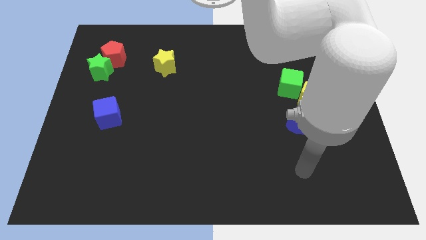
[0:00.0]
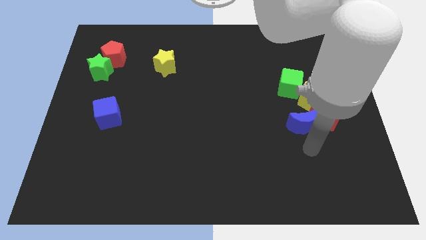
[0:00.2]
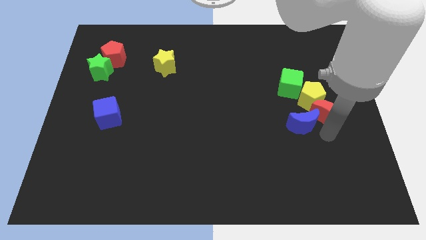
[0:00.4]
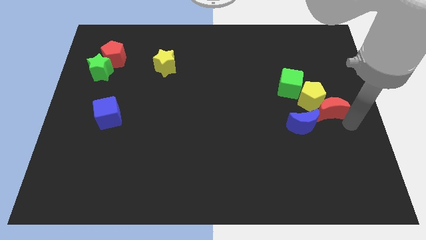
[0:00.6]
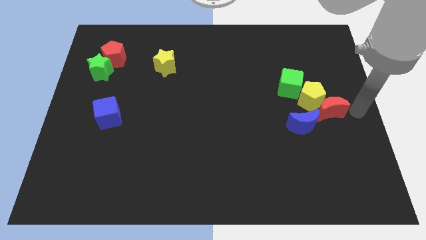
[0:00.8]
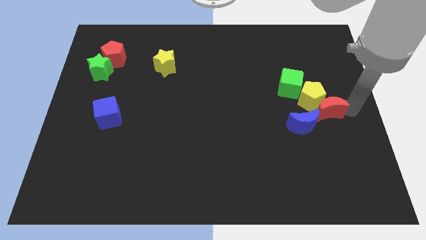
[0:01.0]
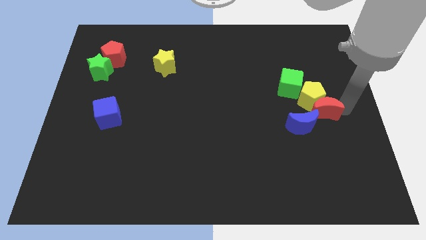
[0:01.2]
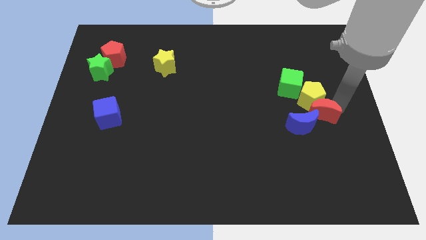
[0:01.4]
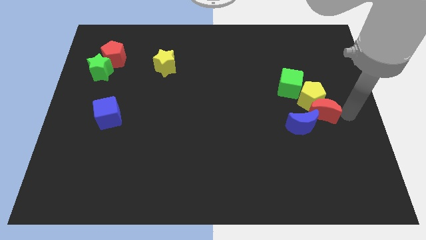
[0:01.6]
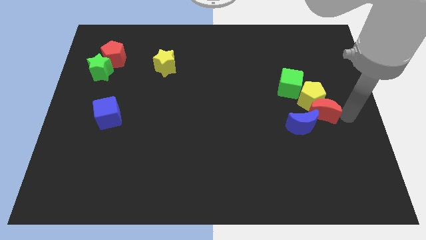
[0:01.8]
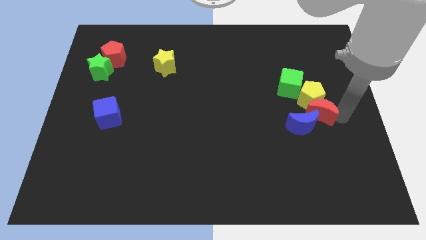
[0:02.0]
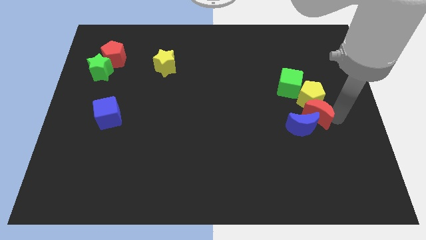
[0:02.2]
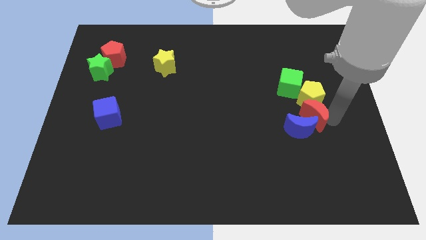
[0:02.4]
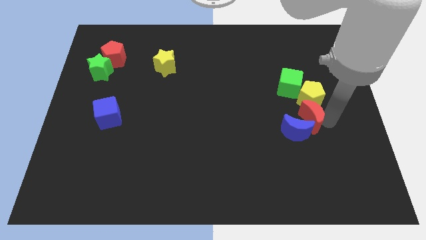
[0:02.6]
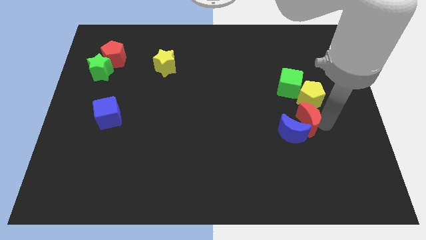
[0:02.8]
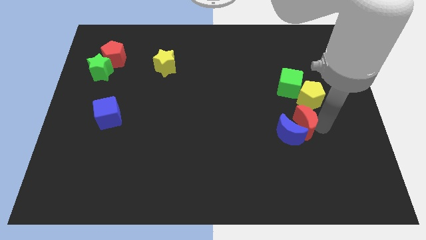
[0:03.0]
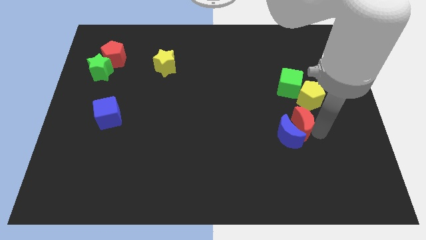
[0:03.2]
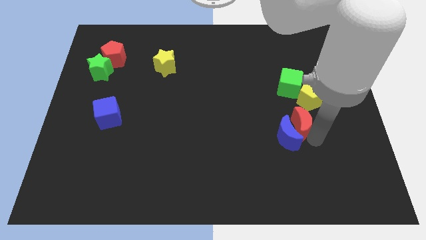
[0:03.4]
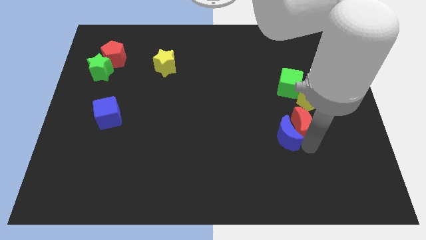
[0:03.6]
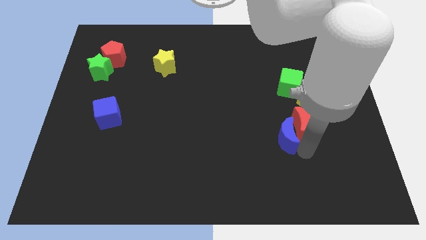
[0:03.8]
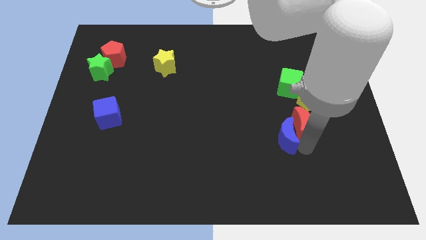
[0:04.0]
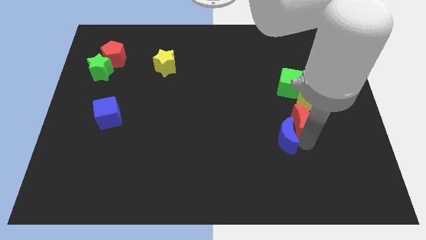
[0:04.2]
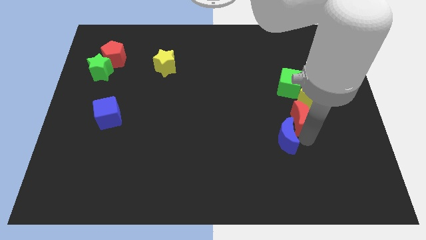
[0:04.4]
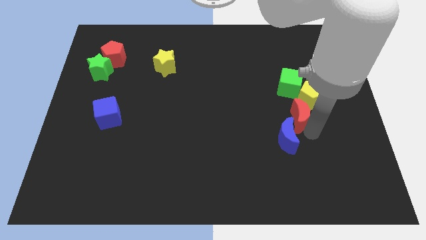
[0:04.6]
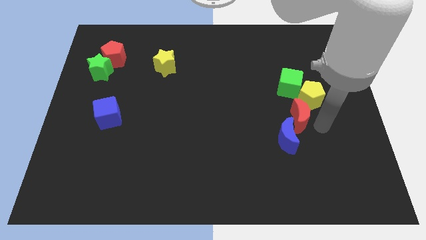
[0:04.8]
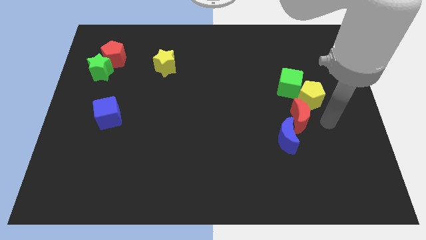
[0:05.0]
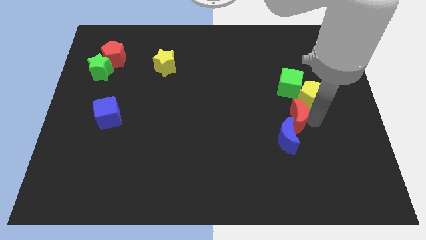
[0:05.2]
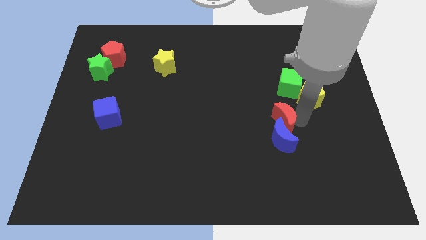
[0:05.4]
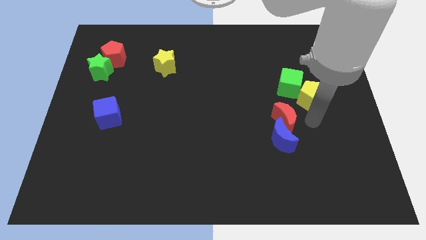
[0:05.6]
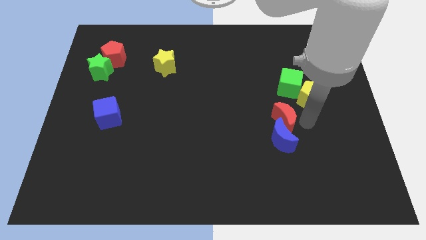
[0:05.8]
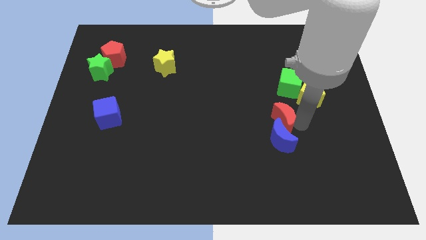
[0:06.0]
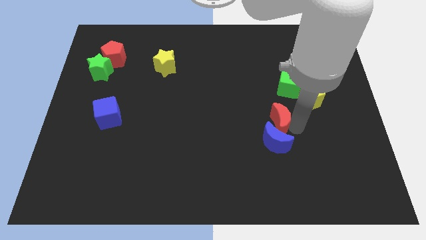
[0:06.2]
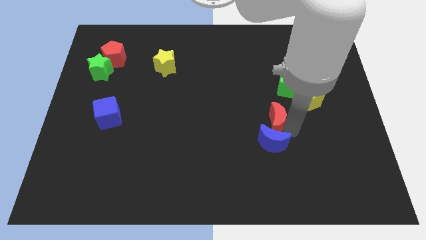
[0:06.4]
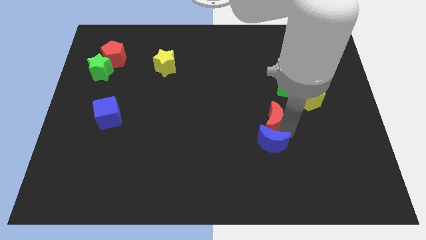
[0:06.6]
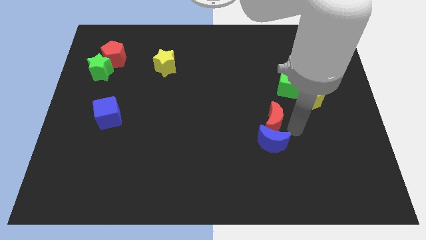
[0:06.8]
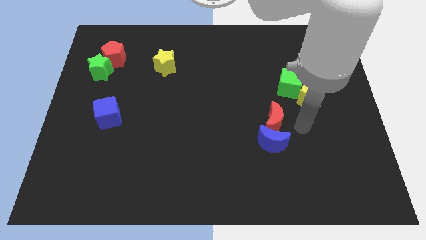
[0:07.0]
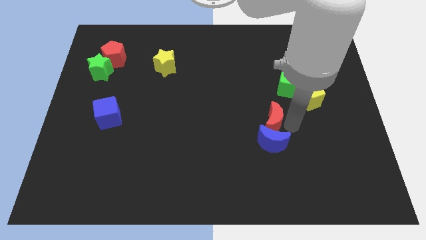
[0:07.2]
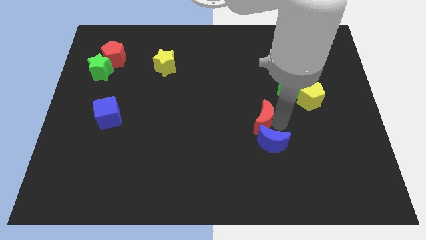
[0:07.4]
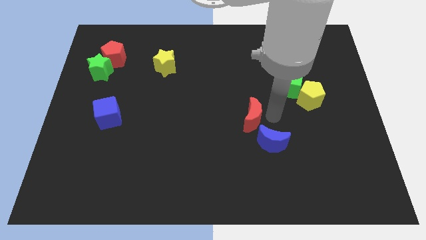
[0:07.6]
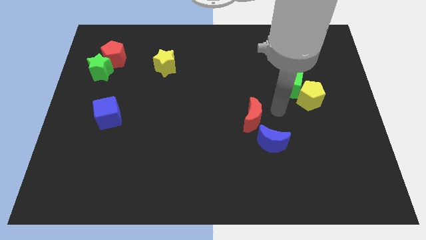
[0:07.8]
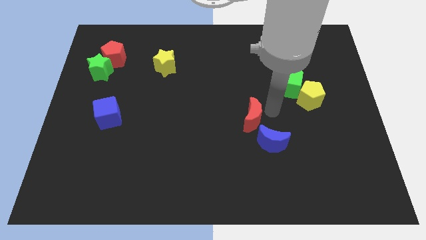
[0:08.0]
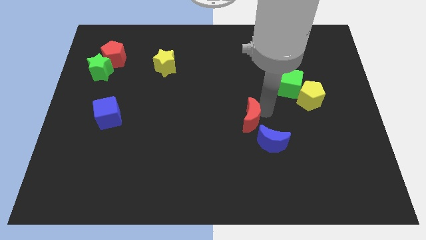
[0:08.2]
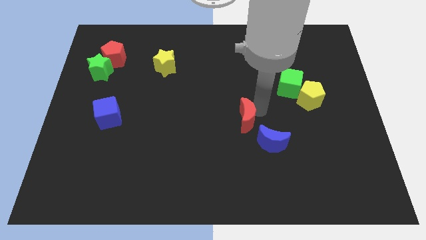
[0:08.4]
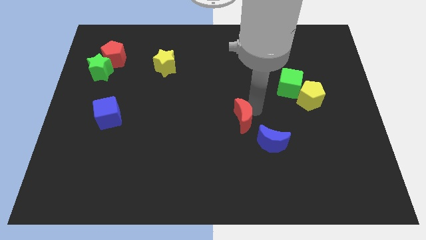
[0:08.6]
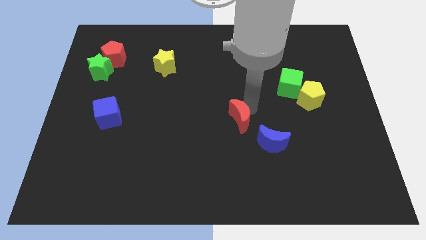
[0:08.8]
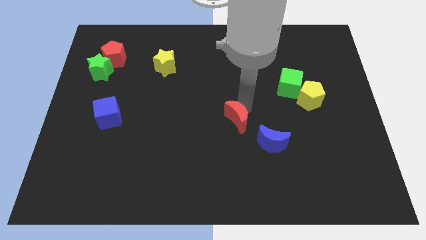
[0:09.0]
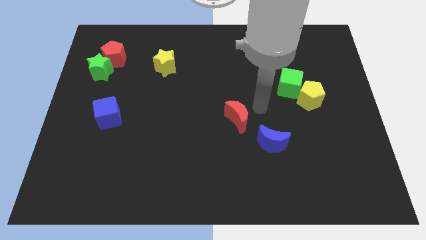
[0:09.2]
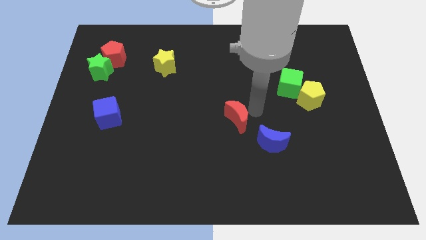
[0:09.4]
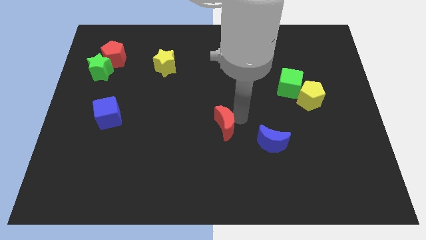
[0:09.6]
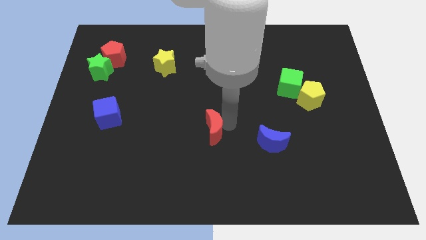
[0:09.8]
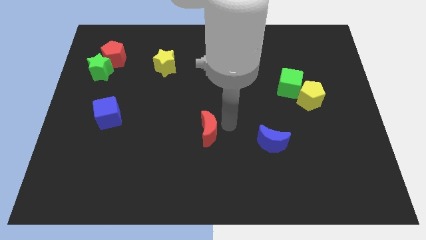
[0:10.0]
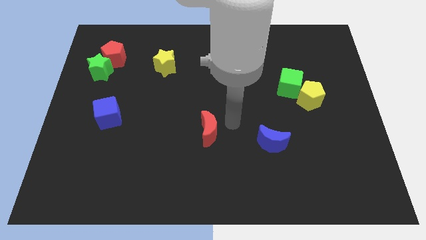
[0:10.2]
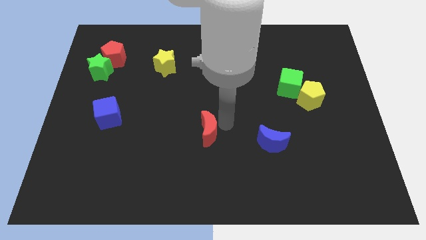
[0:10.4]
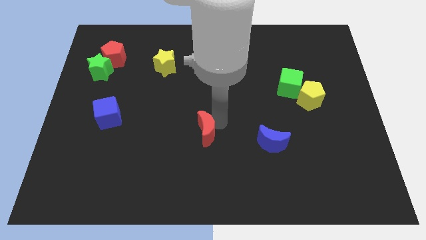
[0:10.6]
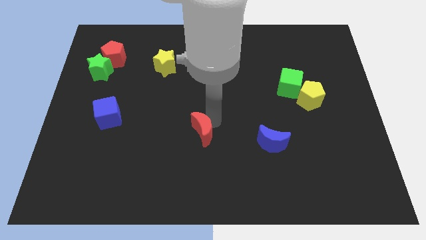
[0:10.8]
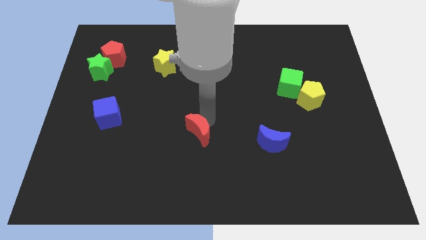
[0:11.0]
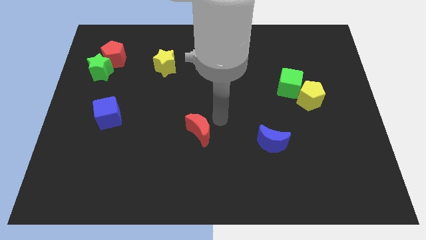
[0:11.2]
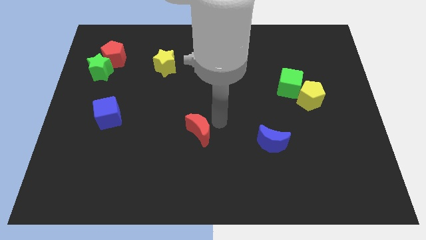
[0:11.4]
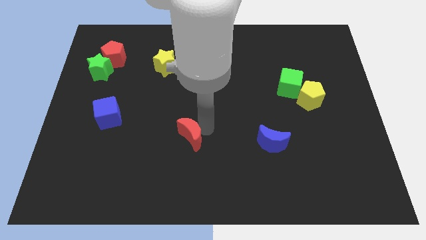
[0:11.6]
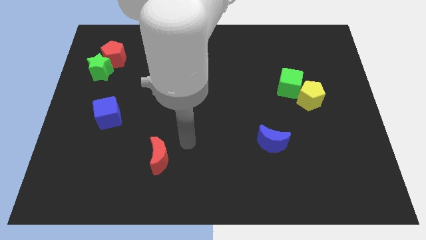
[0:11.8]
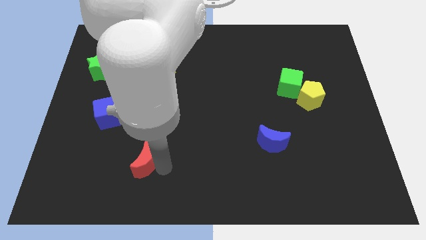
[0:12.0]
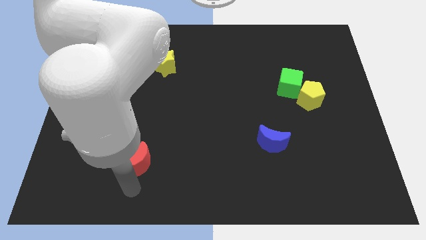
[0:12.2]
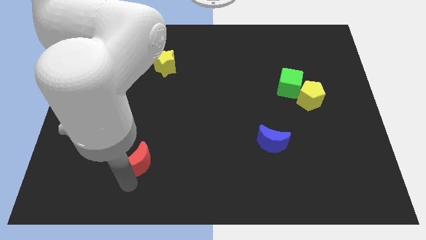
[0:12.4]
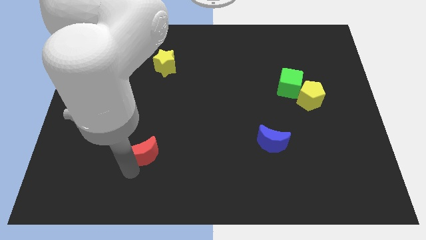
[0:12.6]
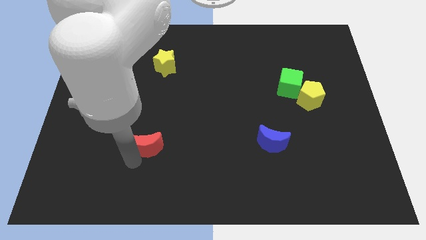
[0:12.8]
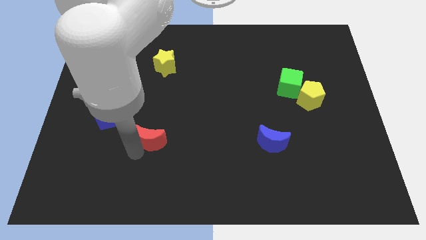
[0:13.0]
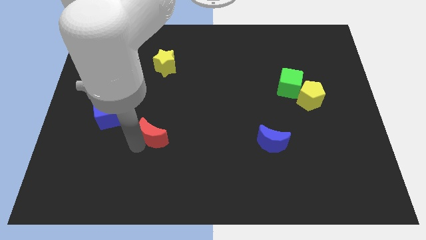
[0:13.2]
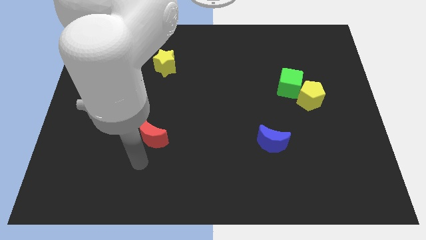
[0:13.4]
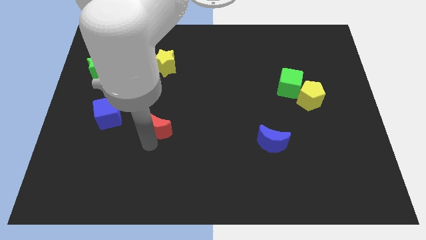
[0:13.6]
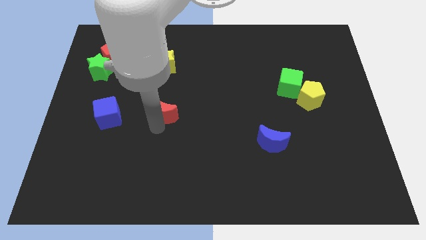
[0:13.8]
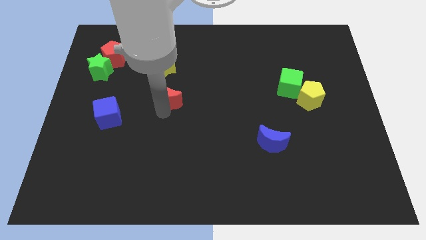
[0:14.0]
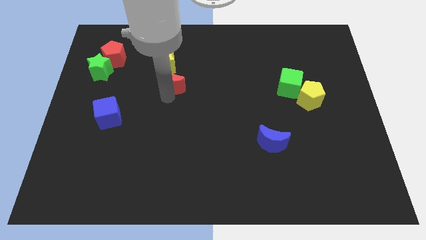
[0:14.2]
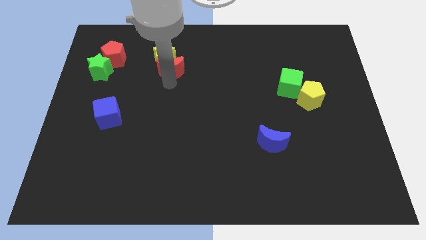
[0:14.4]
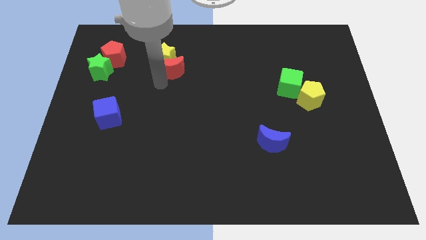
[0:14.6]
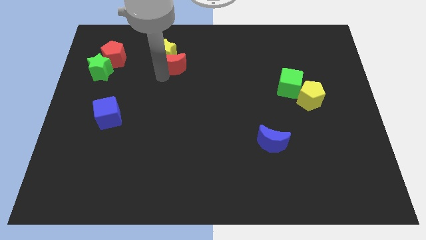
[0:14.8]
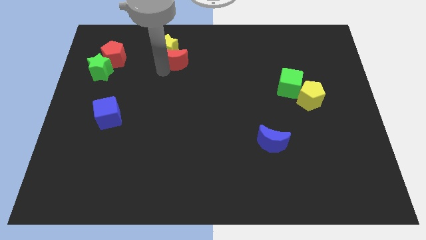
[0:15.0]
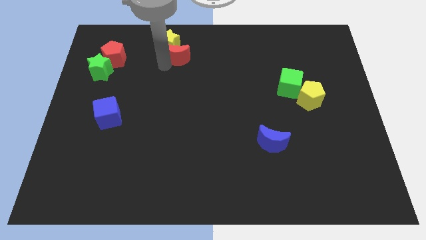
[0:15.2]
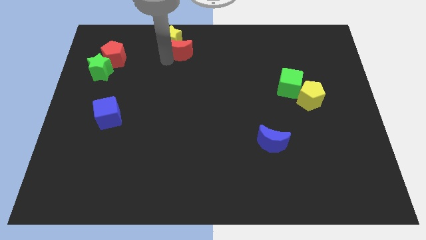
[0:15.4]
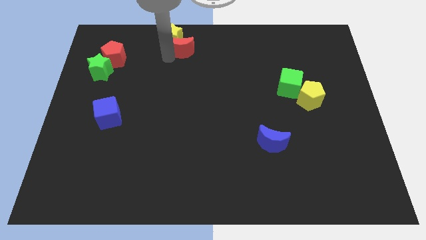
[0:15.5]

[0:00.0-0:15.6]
put the red moon to the towards your base
